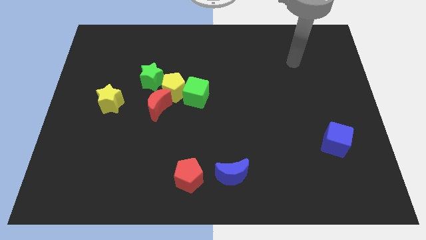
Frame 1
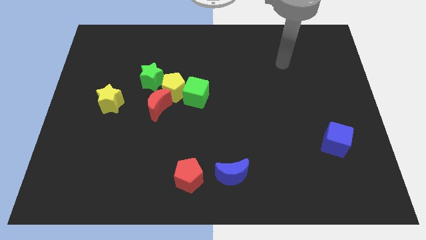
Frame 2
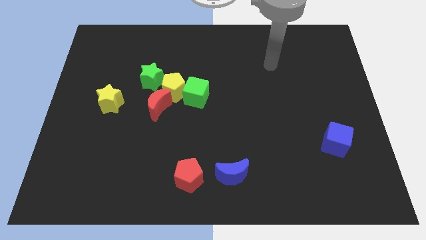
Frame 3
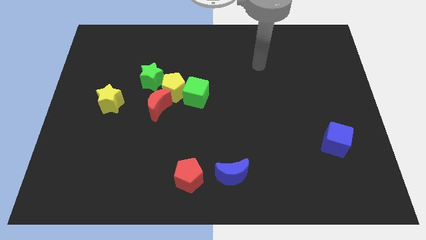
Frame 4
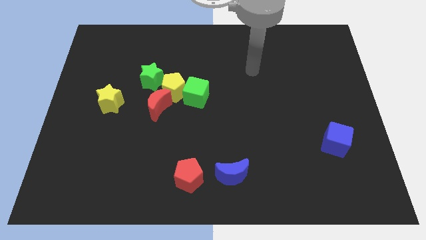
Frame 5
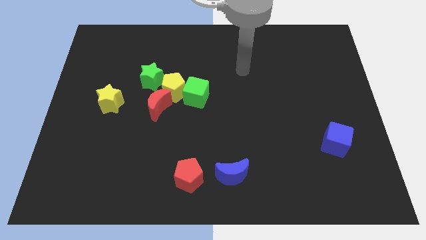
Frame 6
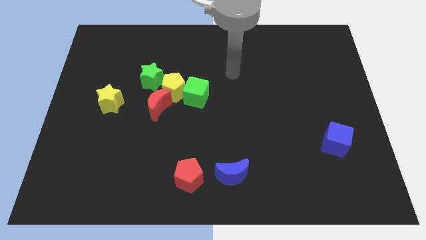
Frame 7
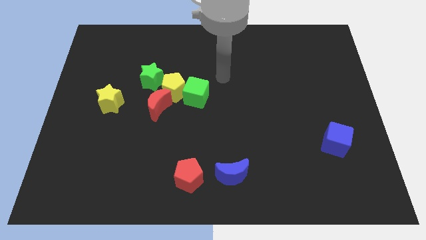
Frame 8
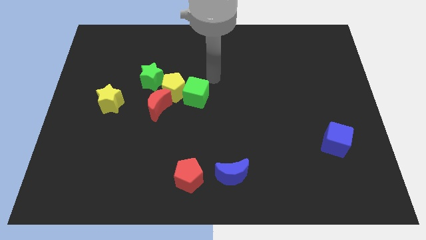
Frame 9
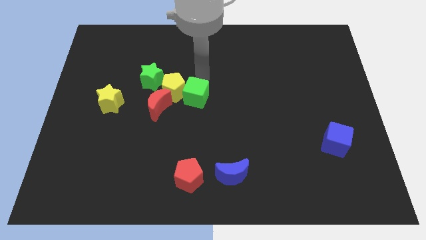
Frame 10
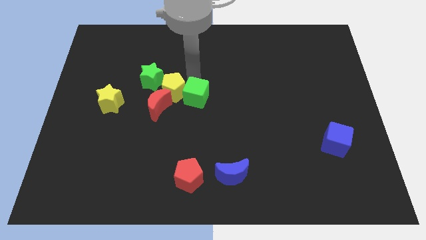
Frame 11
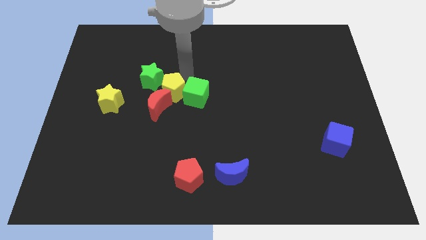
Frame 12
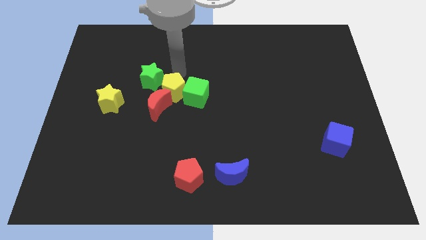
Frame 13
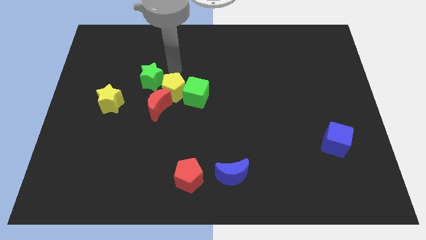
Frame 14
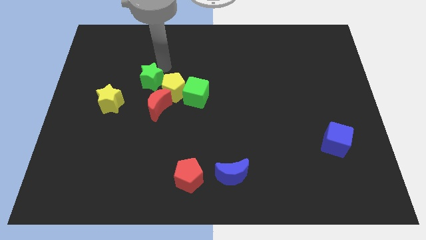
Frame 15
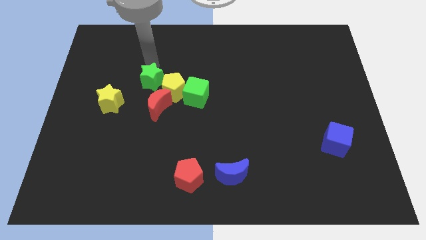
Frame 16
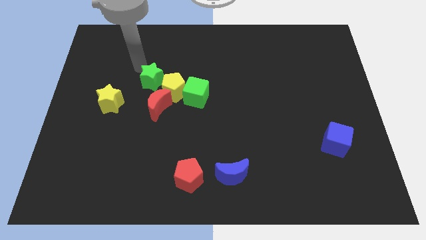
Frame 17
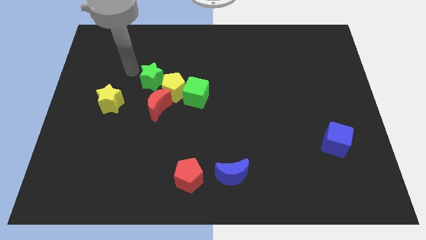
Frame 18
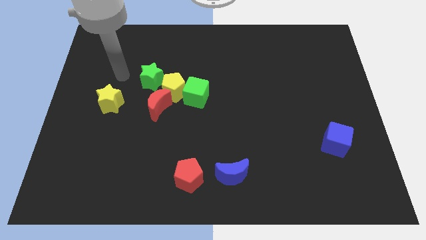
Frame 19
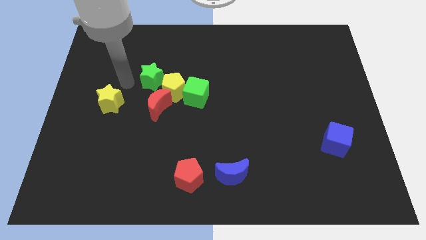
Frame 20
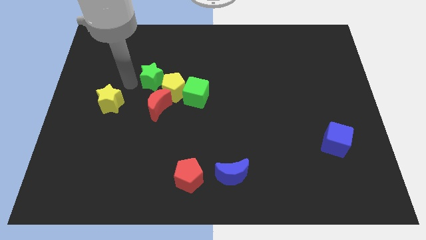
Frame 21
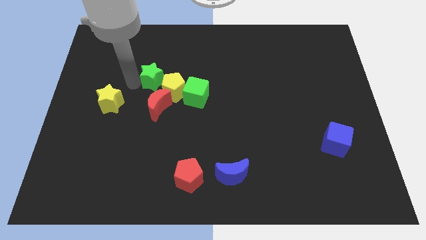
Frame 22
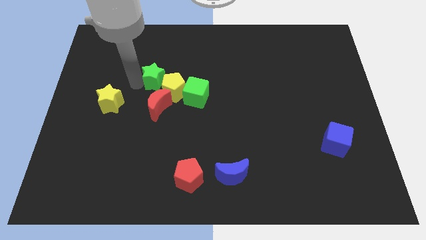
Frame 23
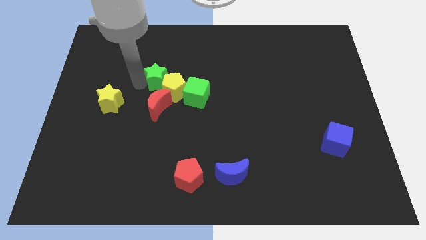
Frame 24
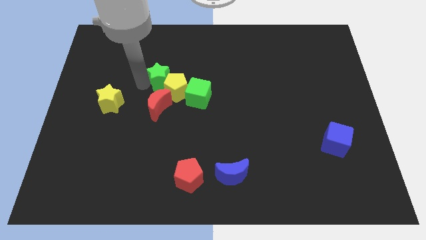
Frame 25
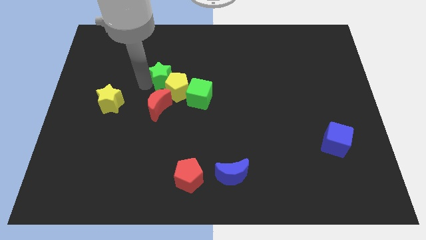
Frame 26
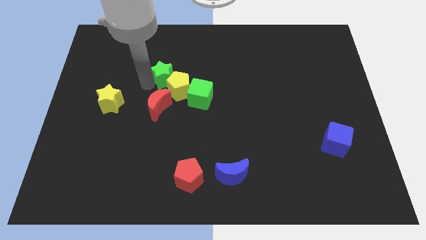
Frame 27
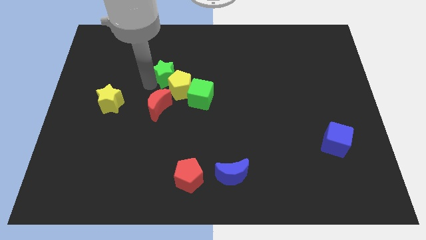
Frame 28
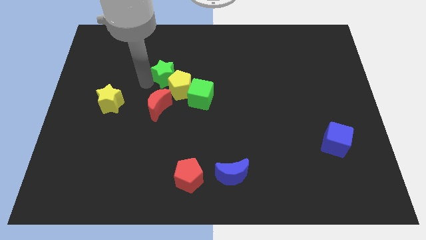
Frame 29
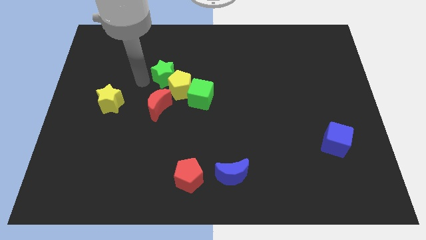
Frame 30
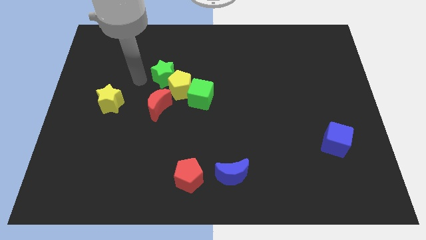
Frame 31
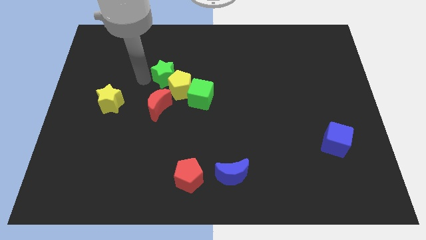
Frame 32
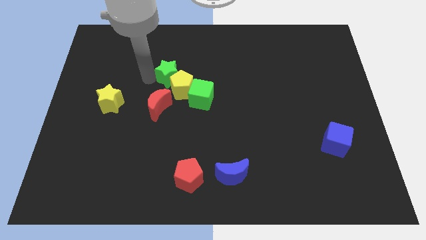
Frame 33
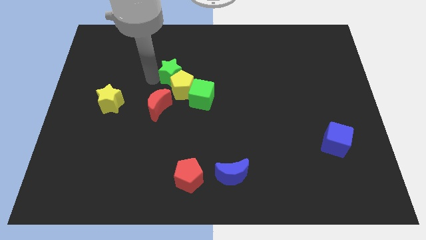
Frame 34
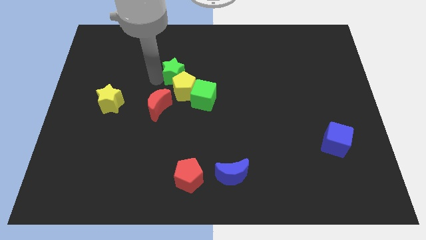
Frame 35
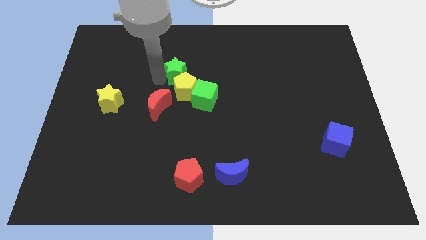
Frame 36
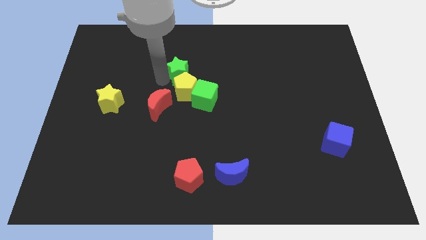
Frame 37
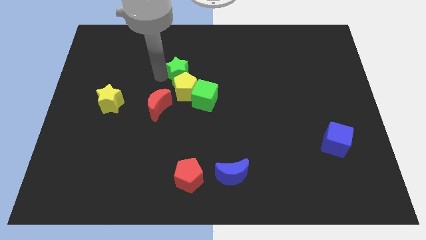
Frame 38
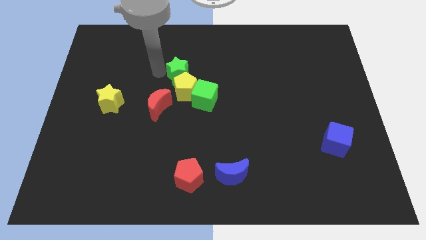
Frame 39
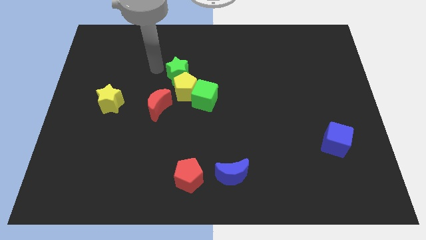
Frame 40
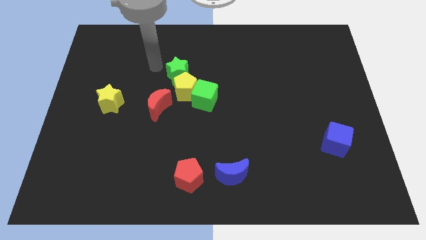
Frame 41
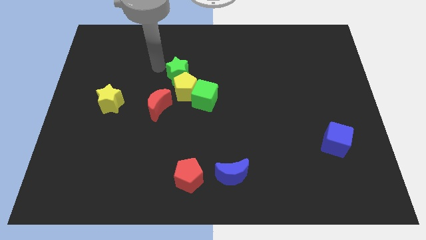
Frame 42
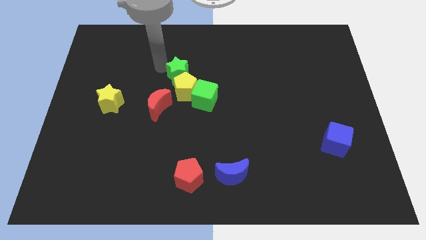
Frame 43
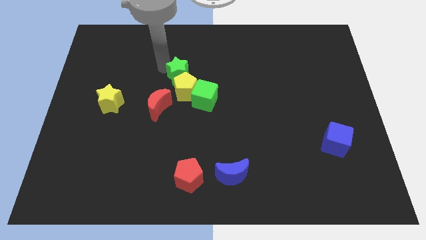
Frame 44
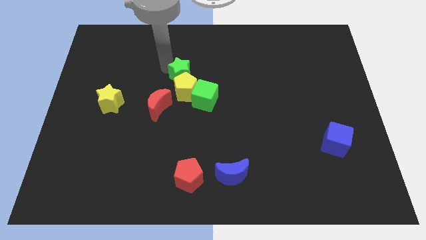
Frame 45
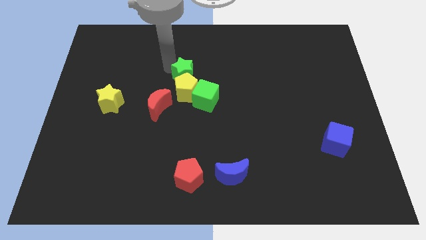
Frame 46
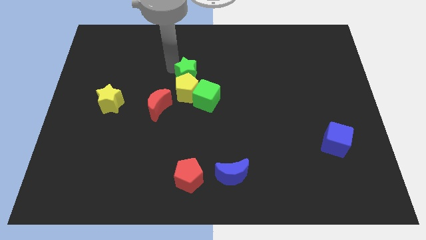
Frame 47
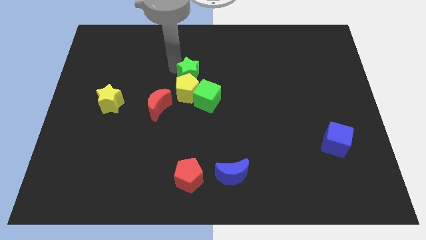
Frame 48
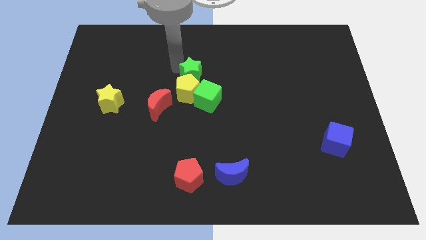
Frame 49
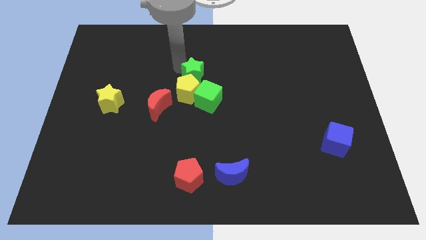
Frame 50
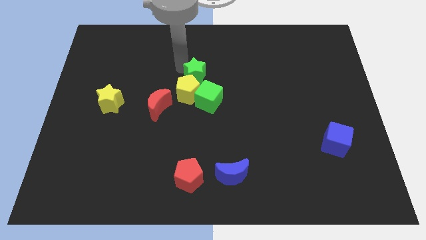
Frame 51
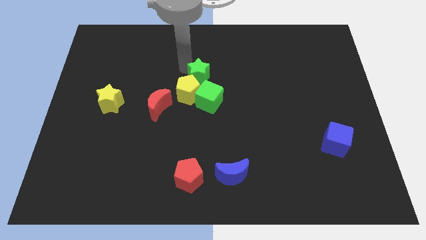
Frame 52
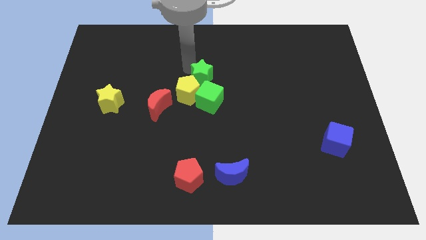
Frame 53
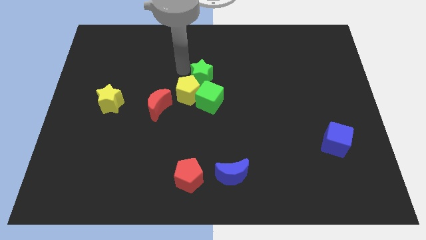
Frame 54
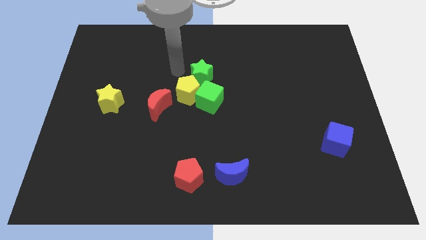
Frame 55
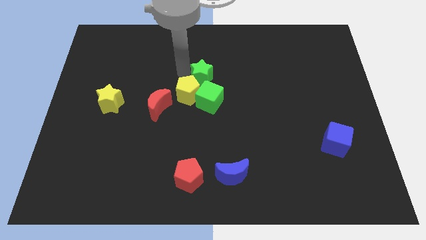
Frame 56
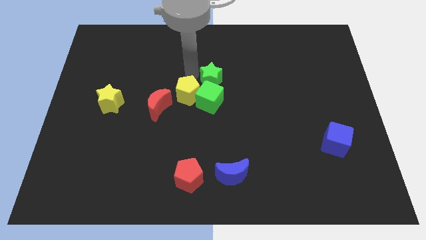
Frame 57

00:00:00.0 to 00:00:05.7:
slide the green star to the top right of the green cube

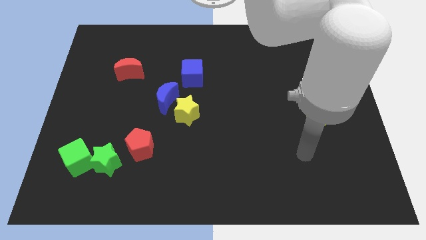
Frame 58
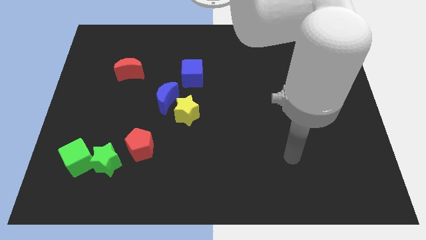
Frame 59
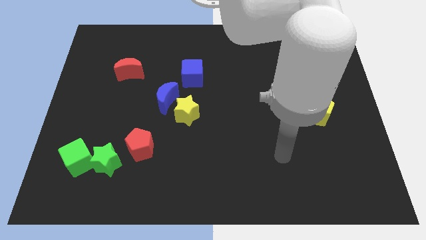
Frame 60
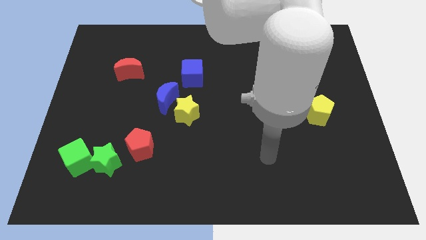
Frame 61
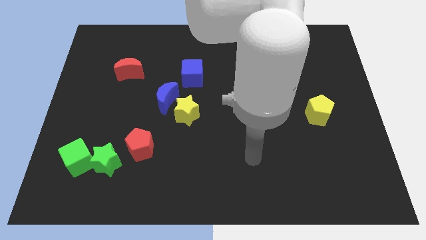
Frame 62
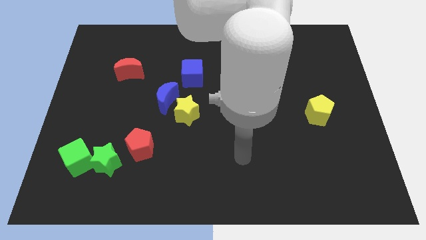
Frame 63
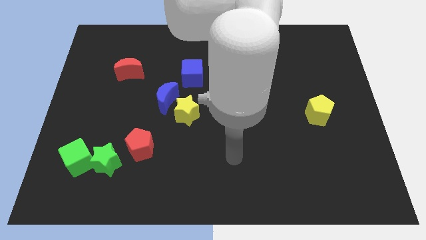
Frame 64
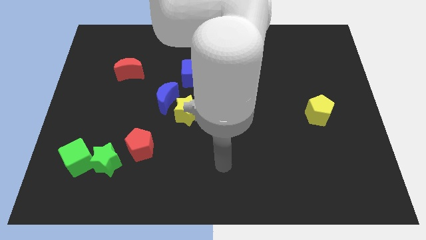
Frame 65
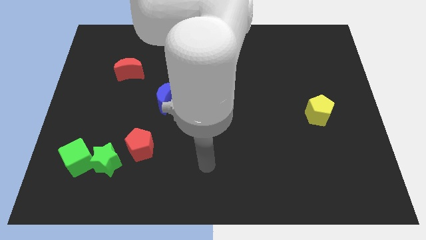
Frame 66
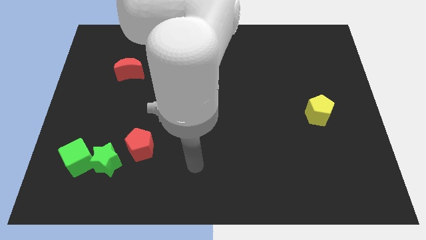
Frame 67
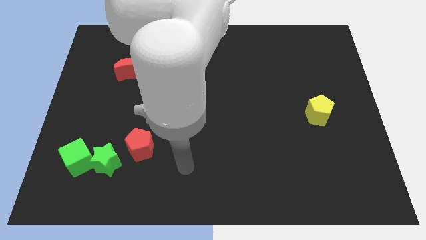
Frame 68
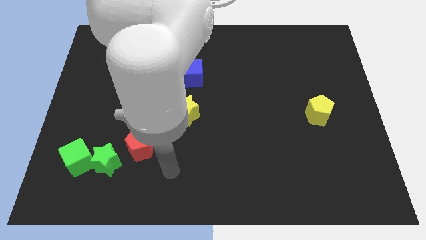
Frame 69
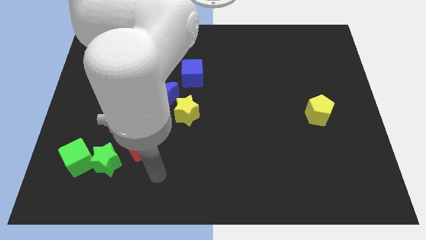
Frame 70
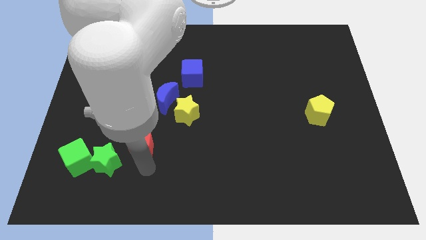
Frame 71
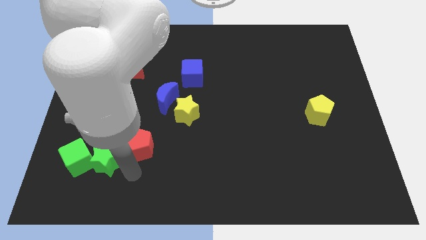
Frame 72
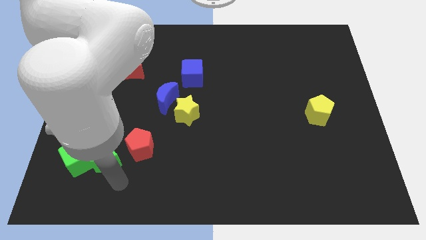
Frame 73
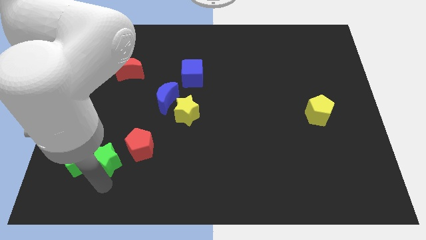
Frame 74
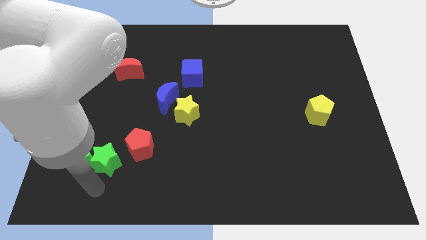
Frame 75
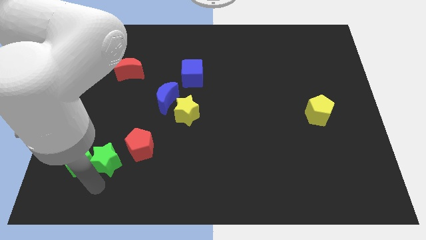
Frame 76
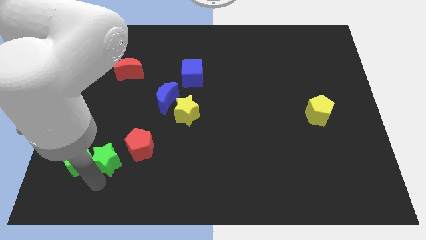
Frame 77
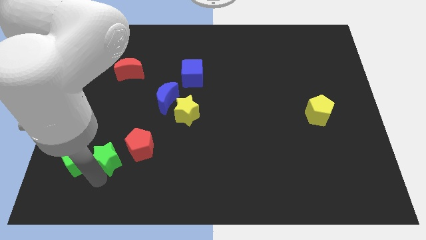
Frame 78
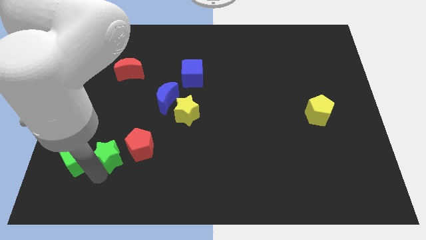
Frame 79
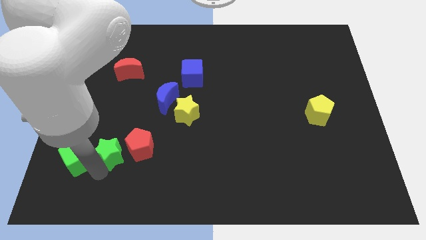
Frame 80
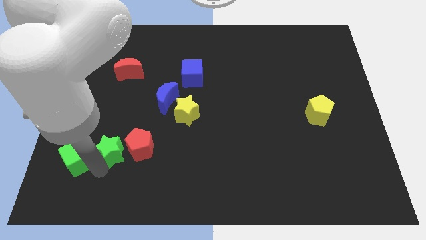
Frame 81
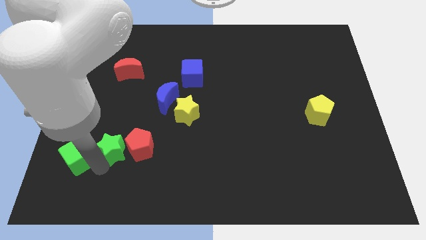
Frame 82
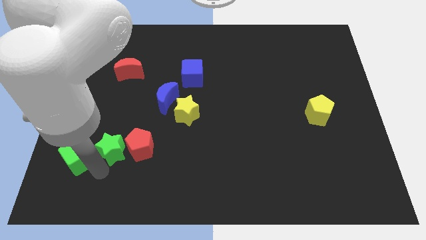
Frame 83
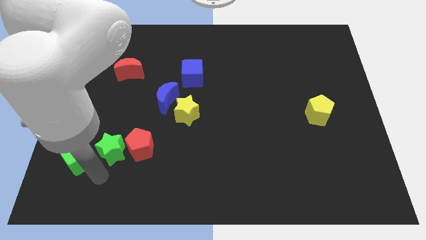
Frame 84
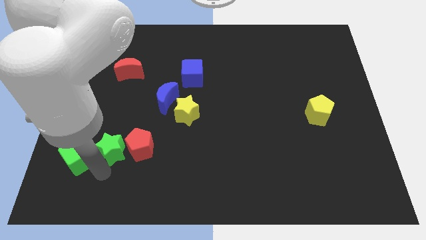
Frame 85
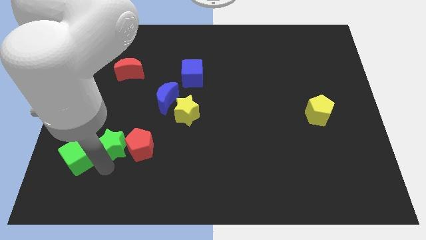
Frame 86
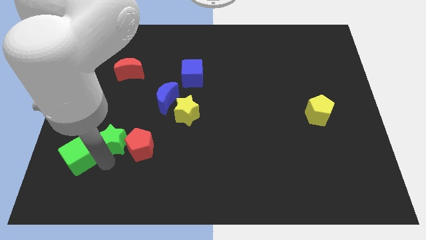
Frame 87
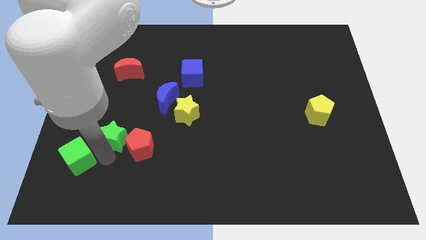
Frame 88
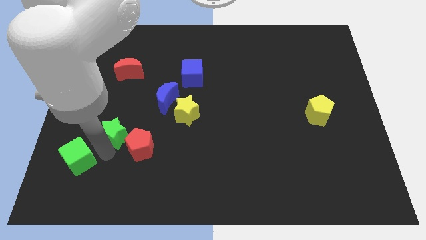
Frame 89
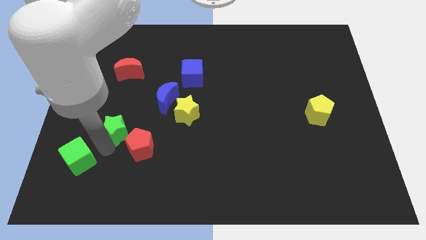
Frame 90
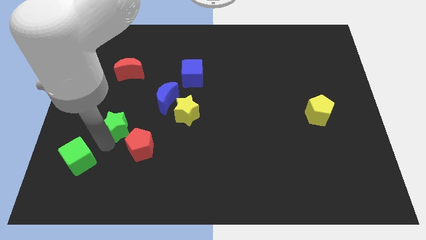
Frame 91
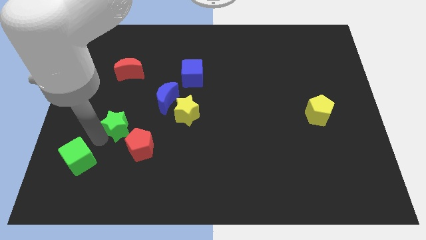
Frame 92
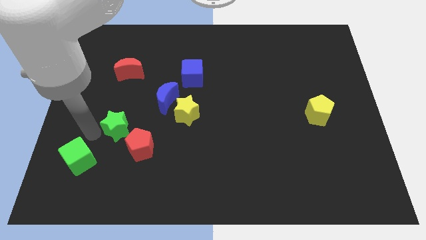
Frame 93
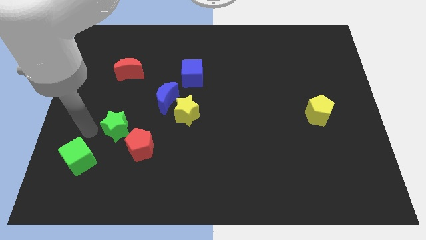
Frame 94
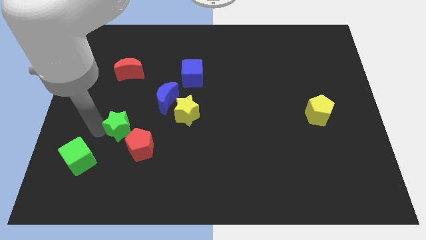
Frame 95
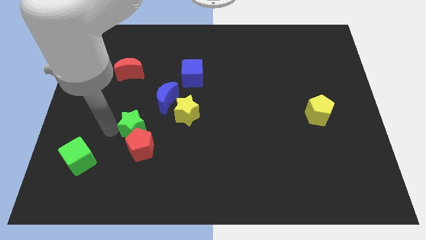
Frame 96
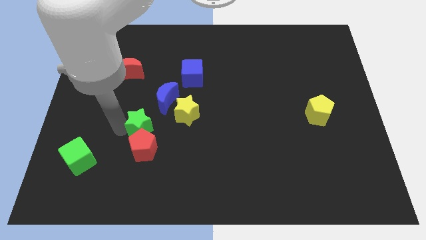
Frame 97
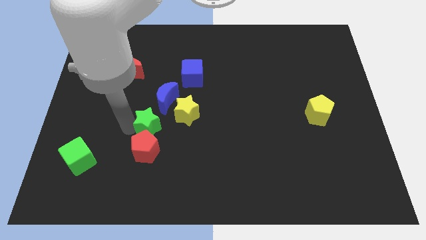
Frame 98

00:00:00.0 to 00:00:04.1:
push the green star to the top right of the red pentagon
